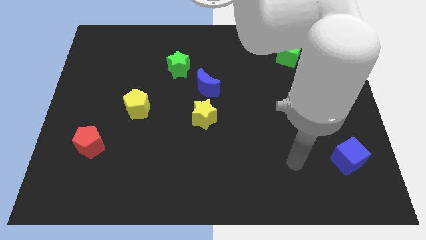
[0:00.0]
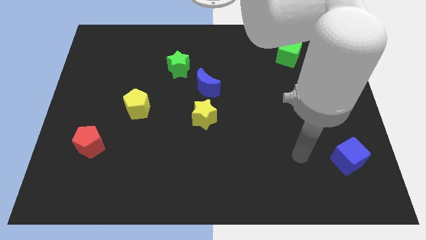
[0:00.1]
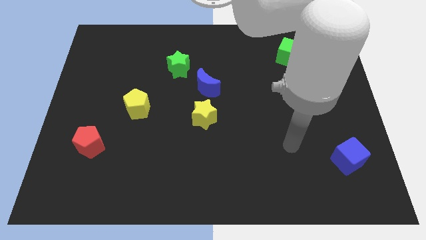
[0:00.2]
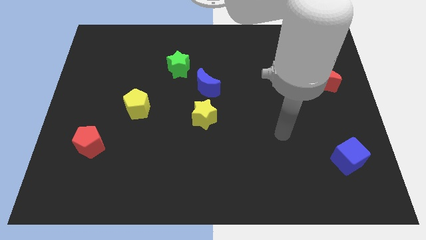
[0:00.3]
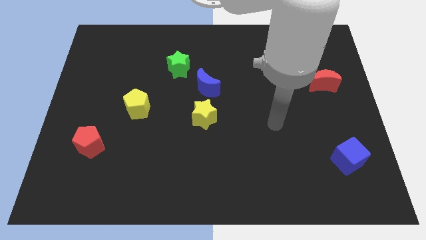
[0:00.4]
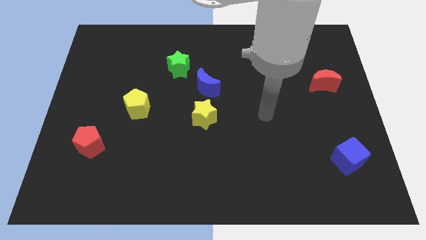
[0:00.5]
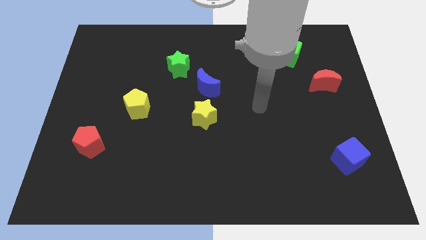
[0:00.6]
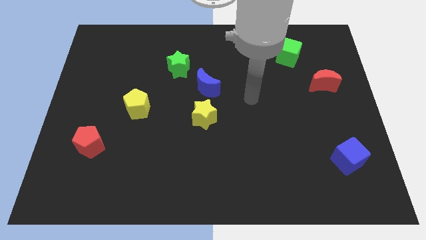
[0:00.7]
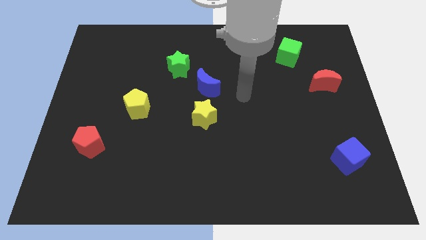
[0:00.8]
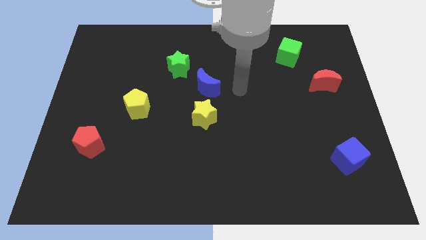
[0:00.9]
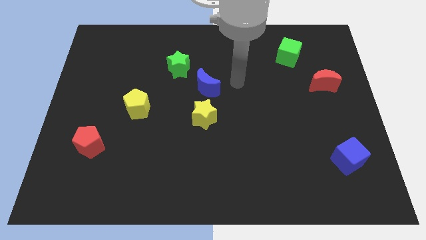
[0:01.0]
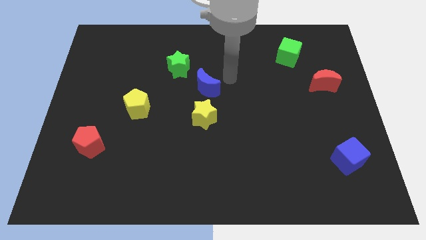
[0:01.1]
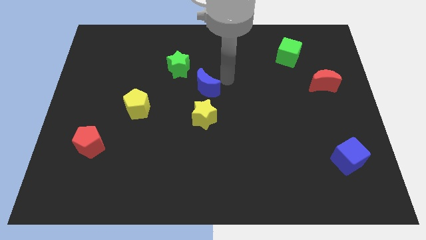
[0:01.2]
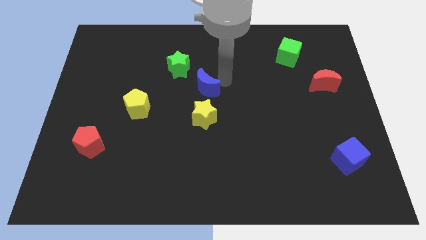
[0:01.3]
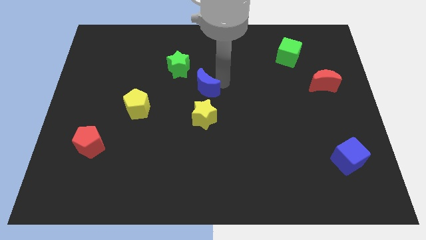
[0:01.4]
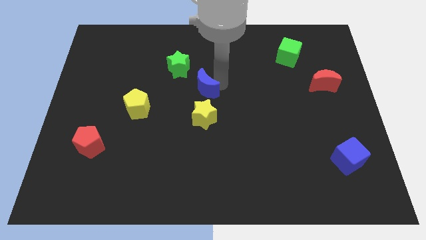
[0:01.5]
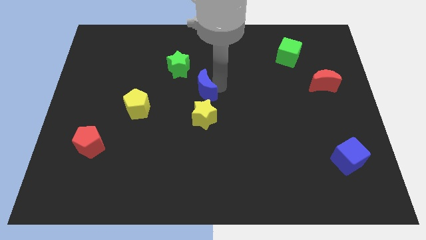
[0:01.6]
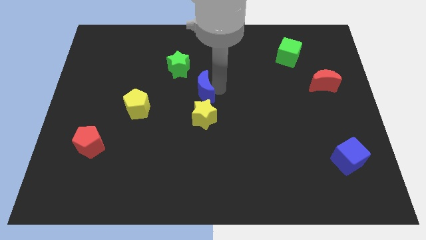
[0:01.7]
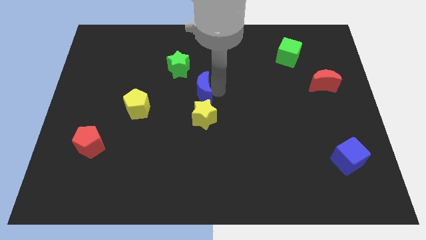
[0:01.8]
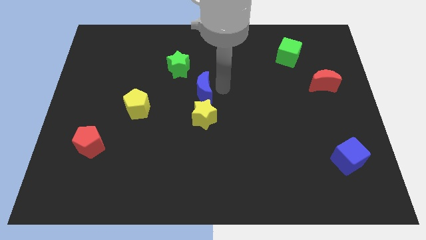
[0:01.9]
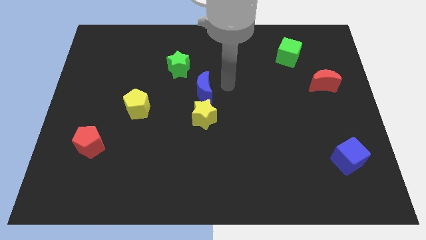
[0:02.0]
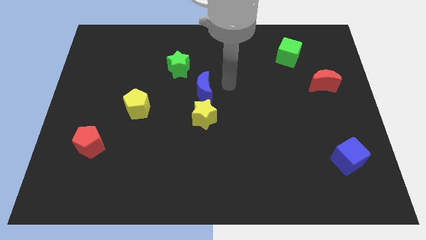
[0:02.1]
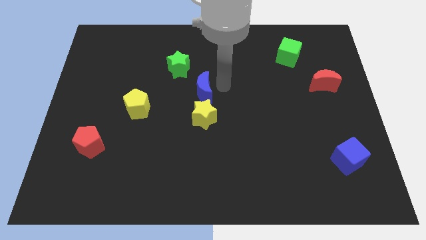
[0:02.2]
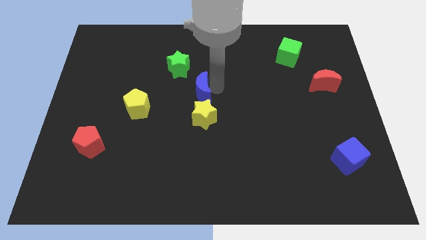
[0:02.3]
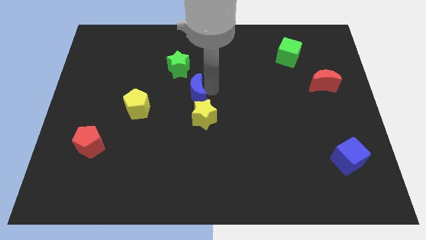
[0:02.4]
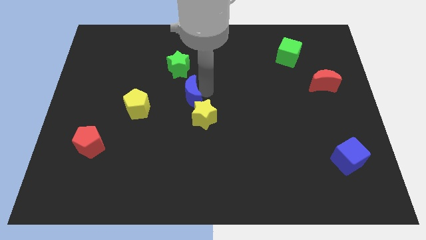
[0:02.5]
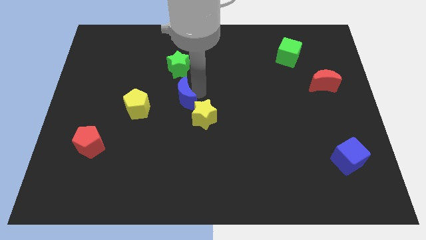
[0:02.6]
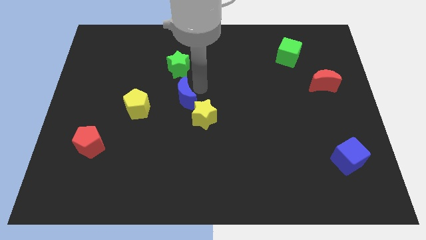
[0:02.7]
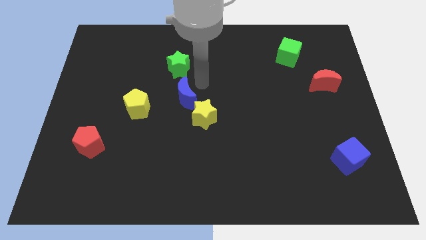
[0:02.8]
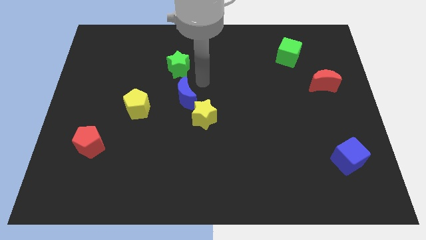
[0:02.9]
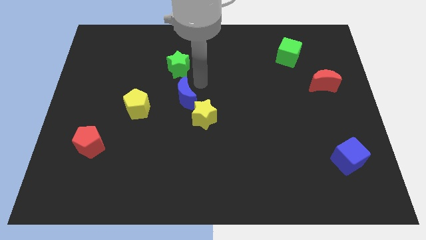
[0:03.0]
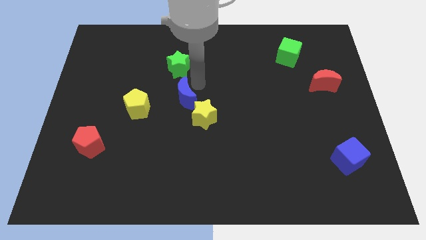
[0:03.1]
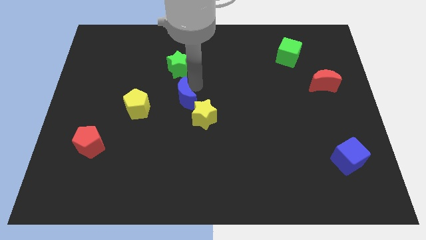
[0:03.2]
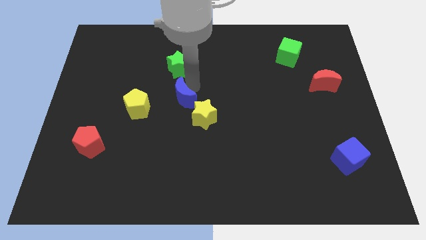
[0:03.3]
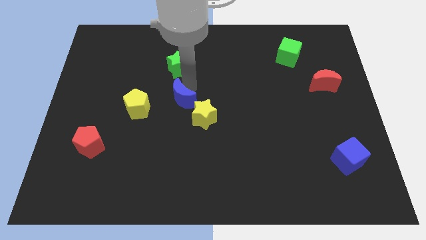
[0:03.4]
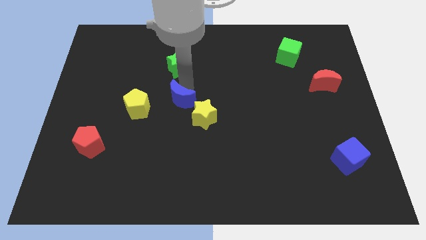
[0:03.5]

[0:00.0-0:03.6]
move the blue moon a little down and then left

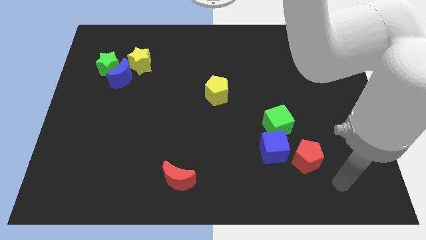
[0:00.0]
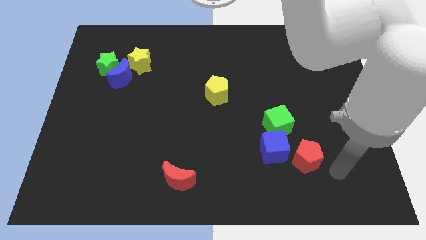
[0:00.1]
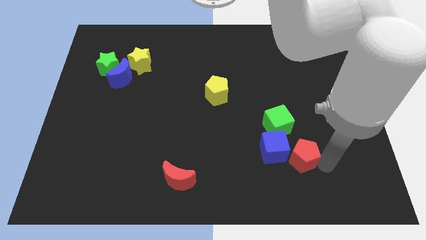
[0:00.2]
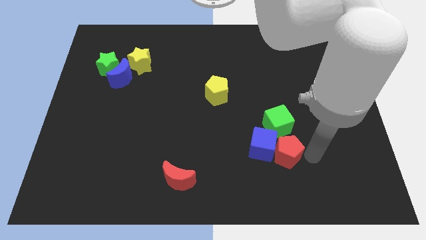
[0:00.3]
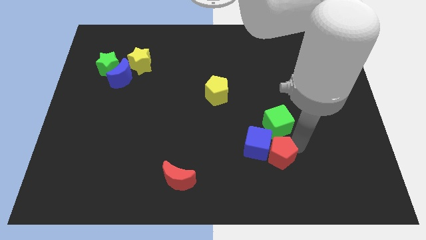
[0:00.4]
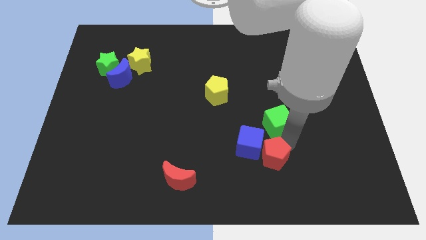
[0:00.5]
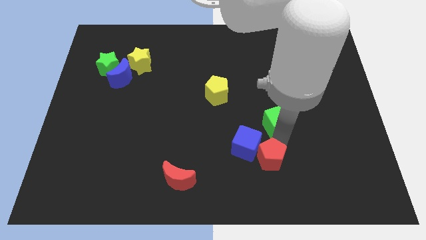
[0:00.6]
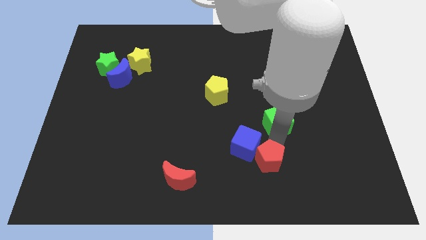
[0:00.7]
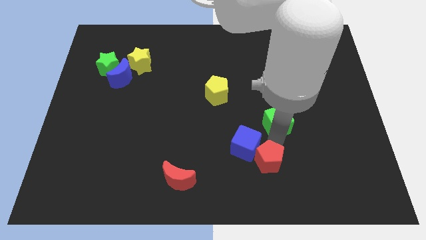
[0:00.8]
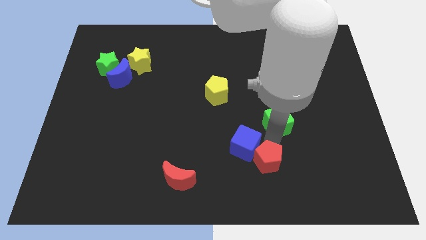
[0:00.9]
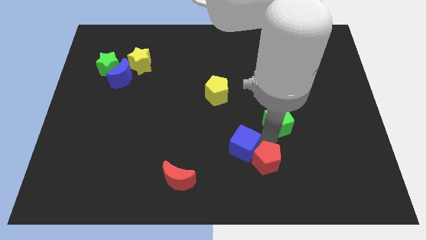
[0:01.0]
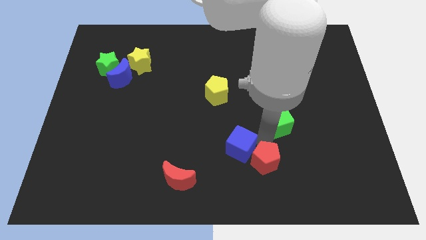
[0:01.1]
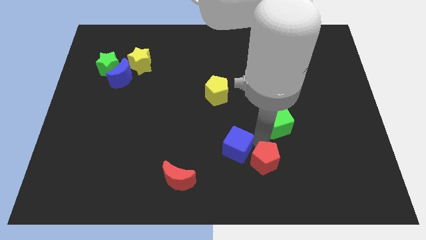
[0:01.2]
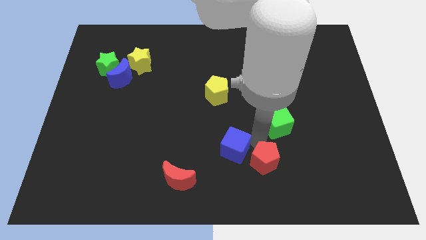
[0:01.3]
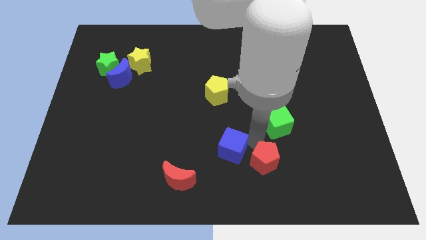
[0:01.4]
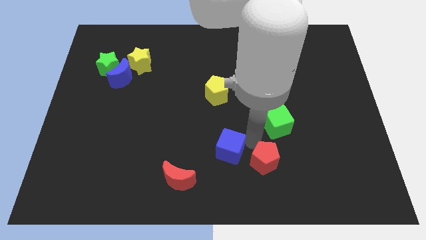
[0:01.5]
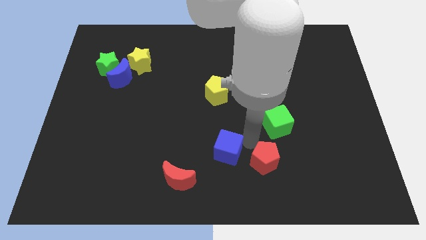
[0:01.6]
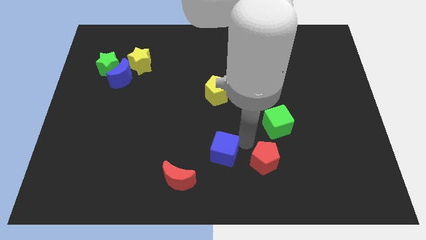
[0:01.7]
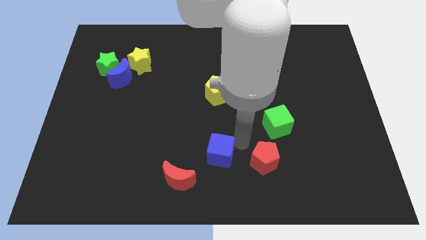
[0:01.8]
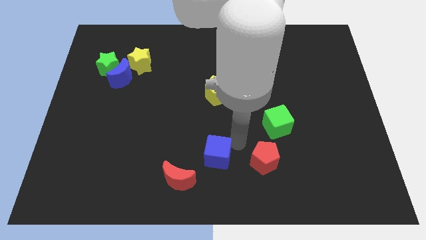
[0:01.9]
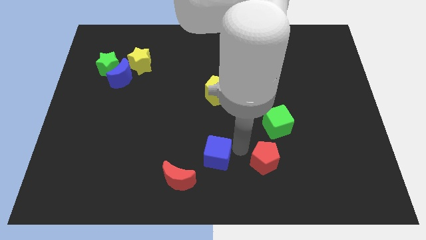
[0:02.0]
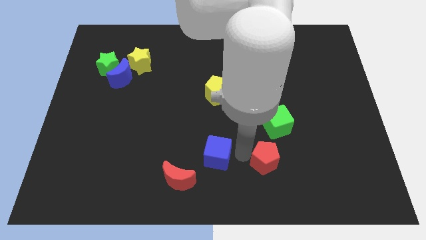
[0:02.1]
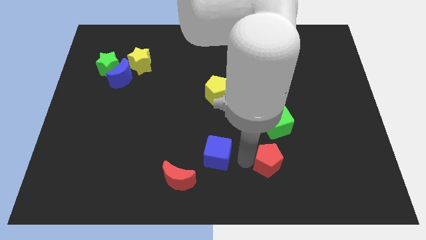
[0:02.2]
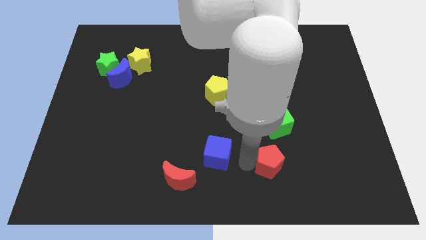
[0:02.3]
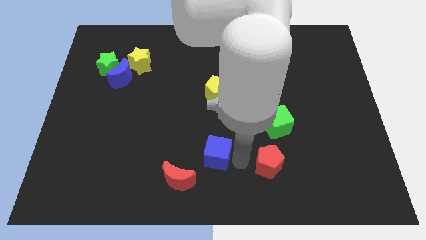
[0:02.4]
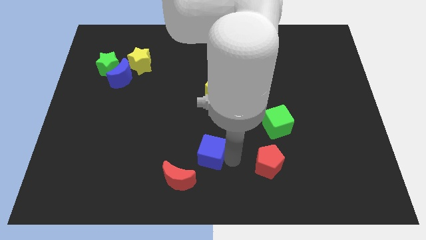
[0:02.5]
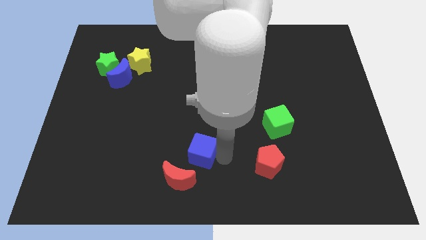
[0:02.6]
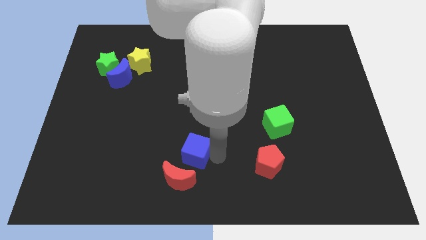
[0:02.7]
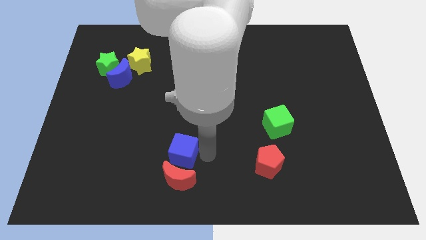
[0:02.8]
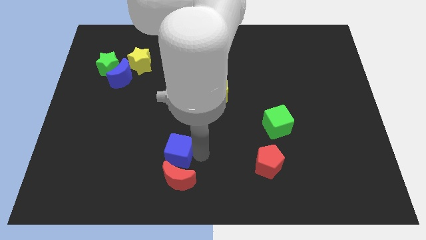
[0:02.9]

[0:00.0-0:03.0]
slide the blue cube left

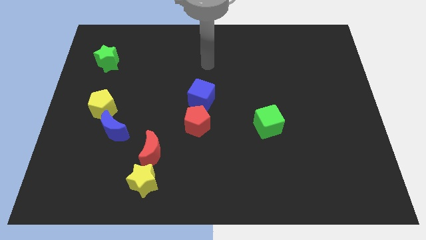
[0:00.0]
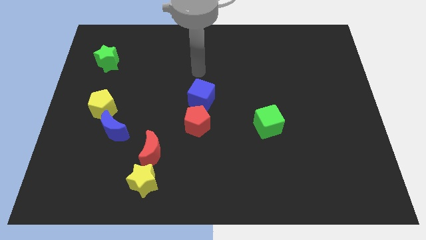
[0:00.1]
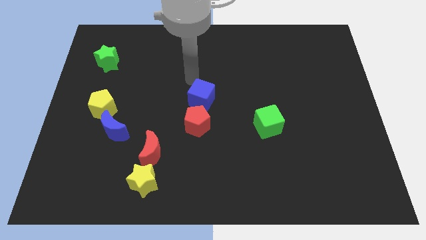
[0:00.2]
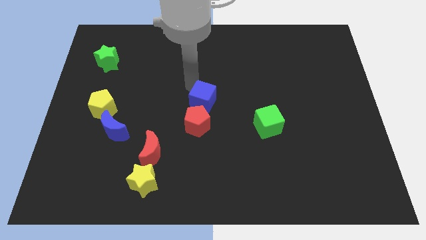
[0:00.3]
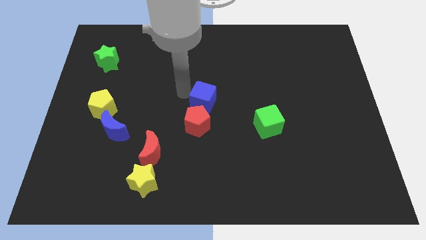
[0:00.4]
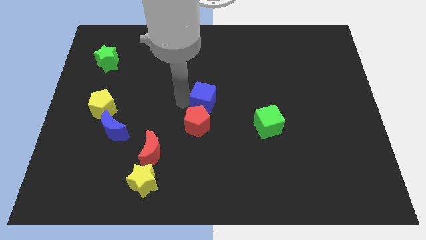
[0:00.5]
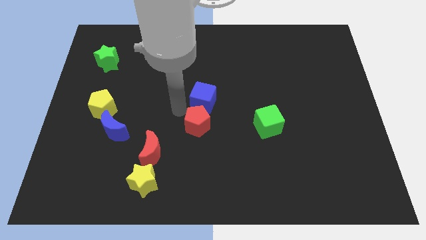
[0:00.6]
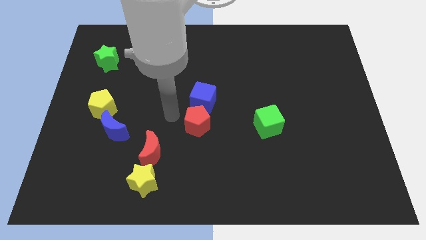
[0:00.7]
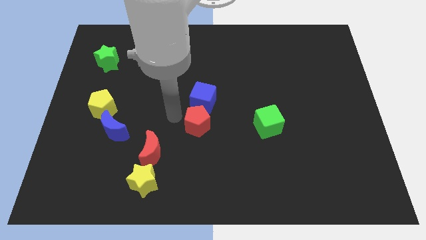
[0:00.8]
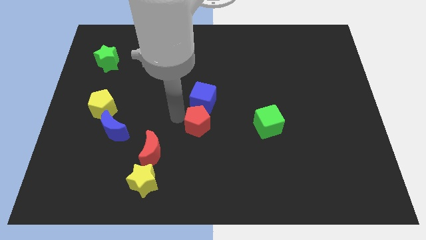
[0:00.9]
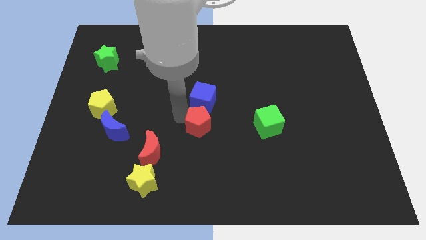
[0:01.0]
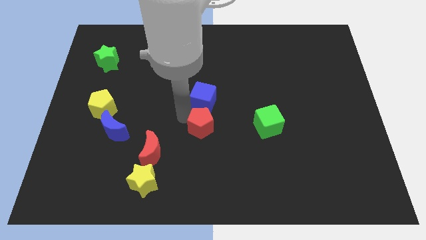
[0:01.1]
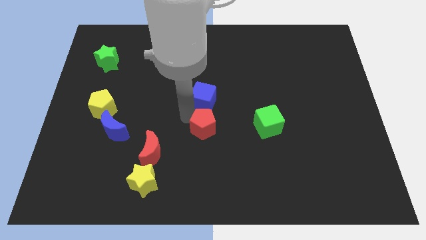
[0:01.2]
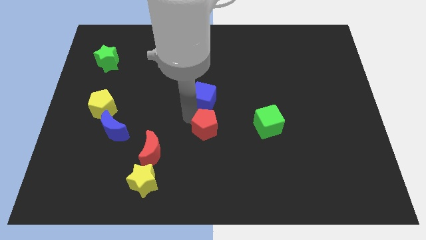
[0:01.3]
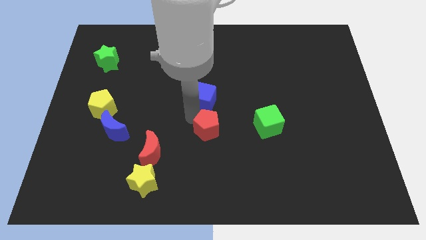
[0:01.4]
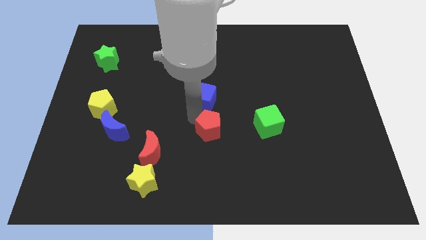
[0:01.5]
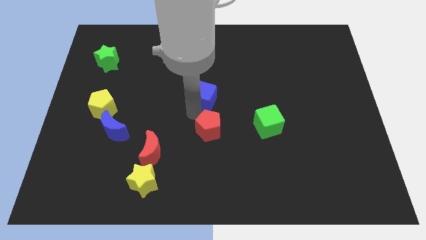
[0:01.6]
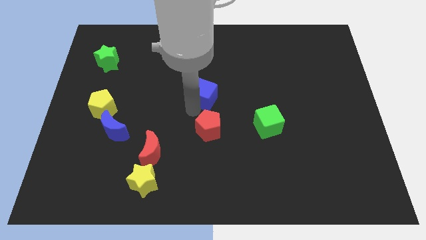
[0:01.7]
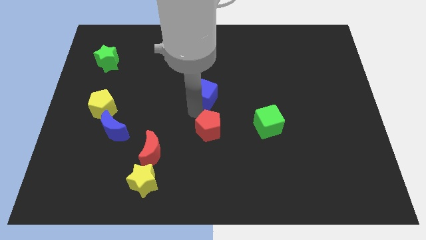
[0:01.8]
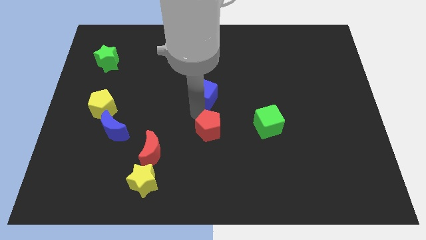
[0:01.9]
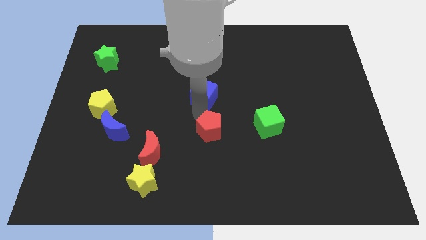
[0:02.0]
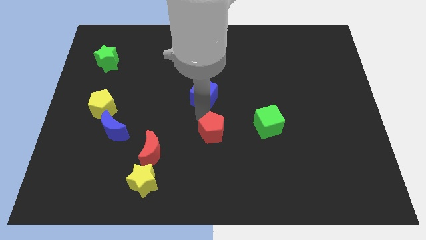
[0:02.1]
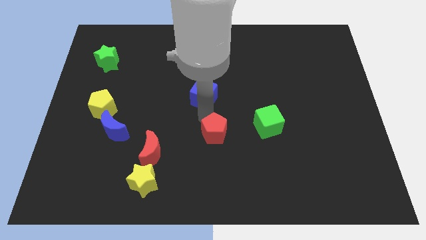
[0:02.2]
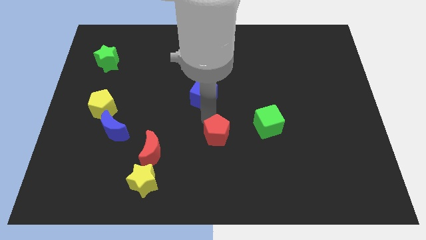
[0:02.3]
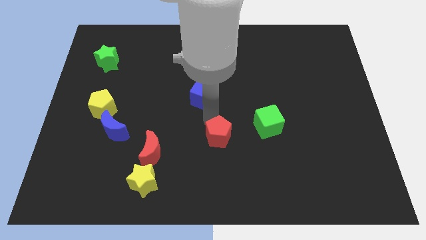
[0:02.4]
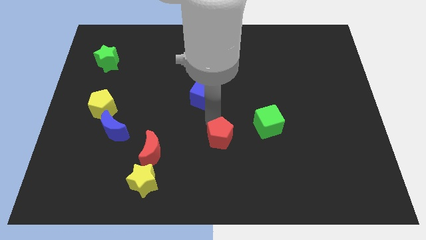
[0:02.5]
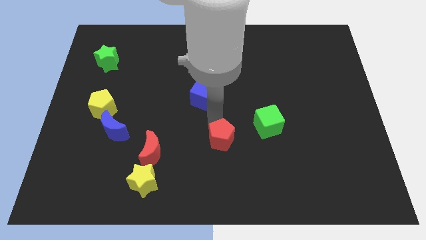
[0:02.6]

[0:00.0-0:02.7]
move the red pentagon diagonally down and to the right a bit
